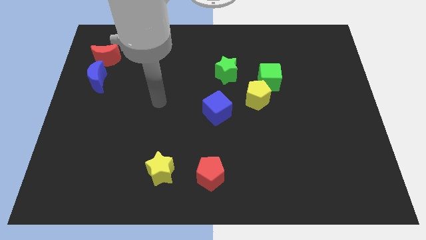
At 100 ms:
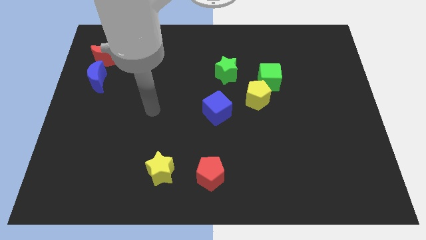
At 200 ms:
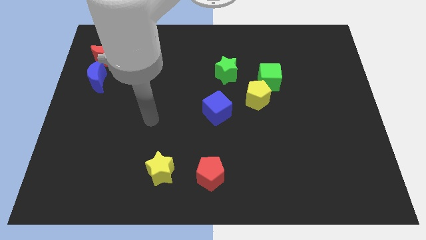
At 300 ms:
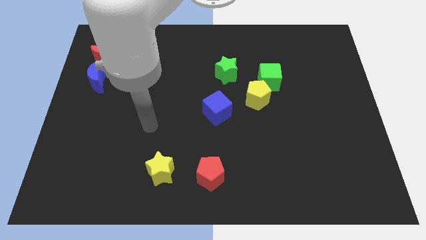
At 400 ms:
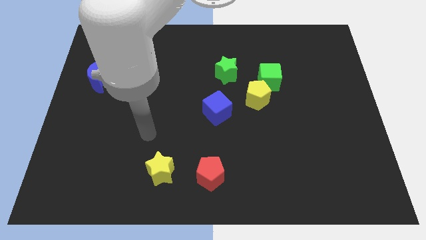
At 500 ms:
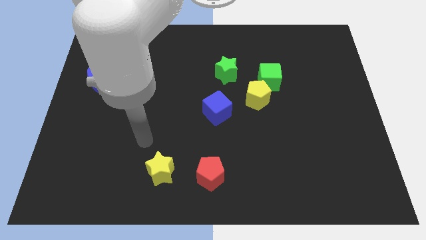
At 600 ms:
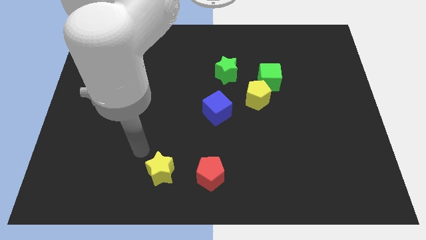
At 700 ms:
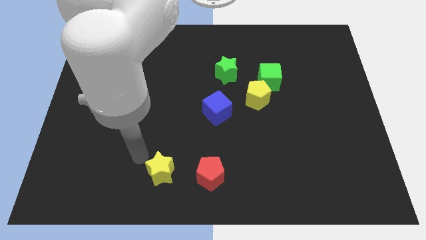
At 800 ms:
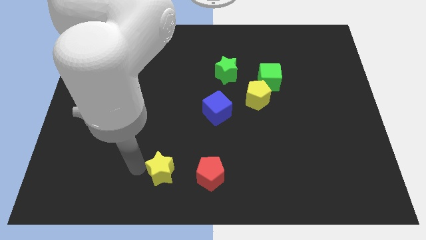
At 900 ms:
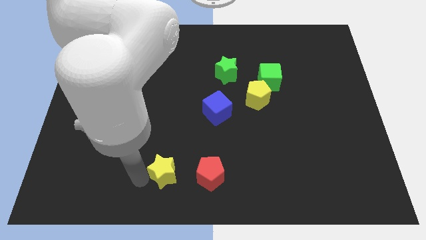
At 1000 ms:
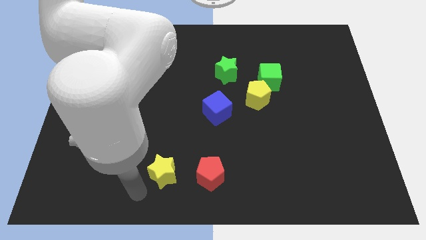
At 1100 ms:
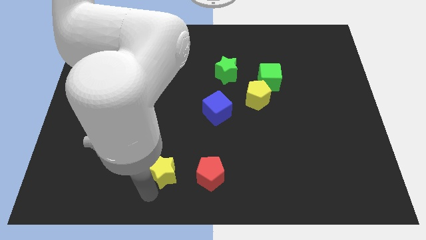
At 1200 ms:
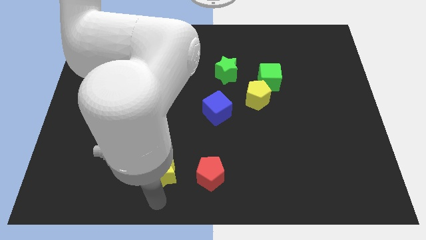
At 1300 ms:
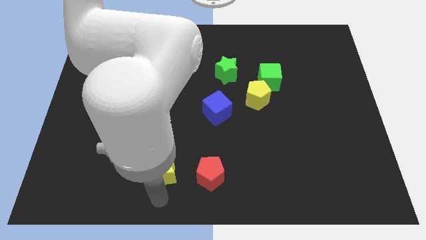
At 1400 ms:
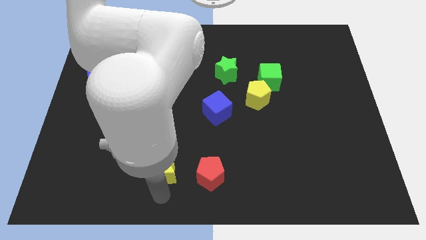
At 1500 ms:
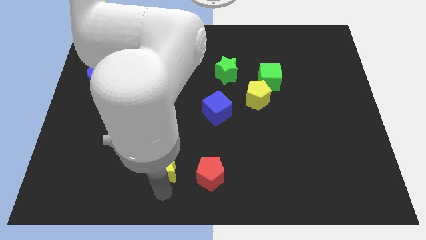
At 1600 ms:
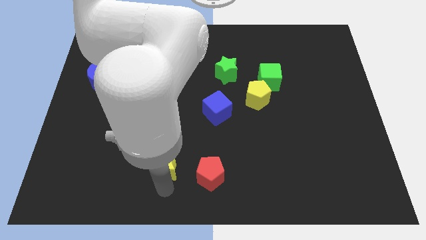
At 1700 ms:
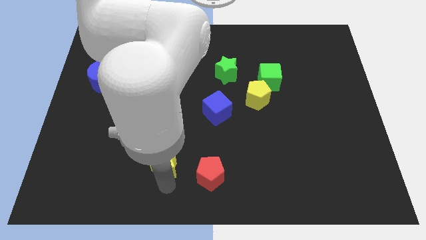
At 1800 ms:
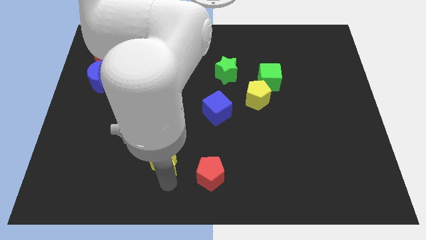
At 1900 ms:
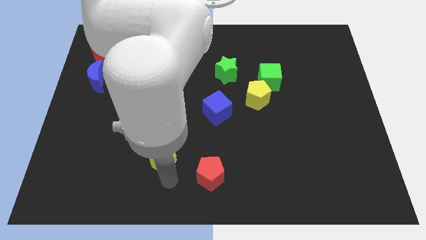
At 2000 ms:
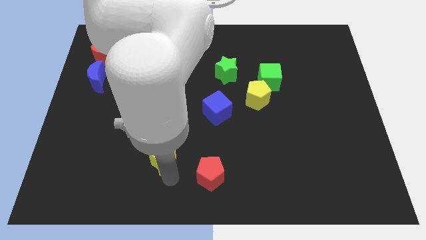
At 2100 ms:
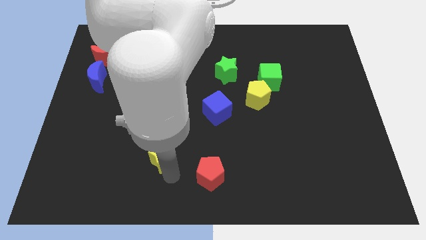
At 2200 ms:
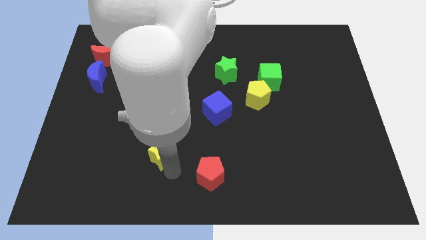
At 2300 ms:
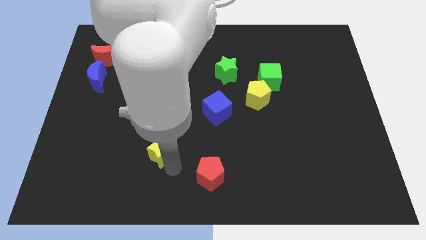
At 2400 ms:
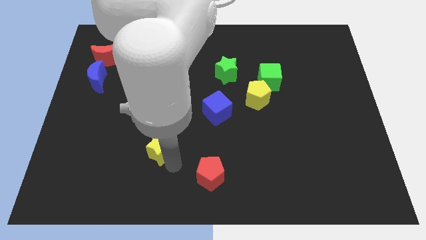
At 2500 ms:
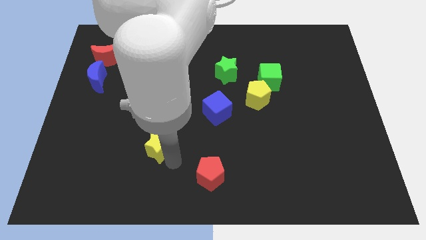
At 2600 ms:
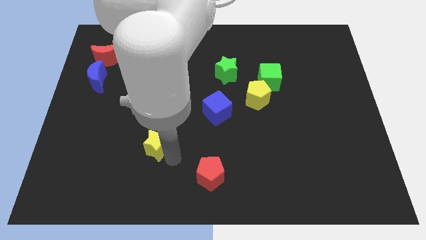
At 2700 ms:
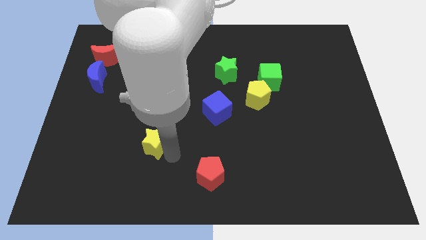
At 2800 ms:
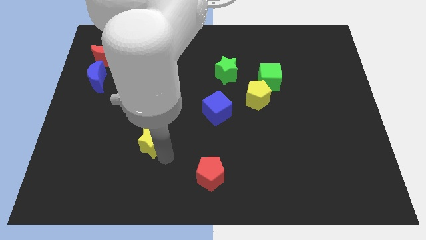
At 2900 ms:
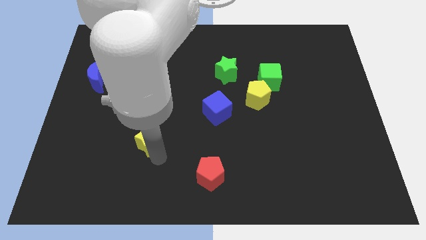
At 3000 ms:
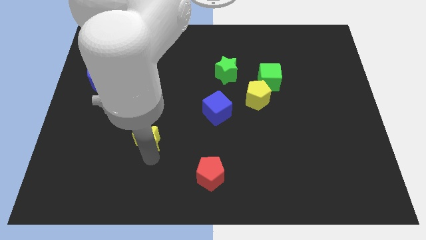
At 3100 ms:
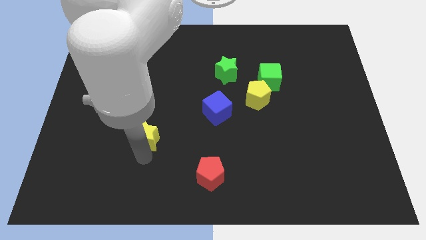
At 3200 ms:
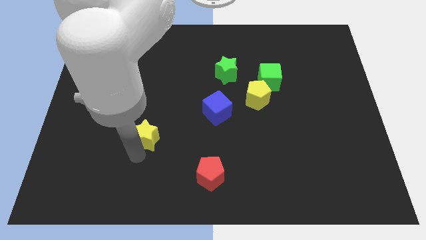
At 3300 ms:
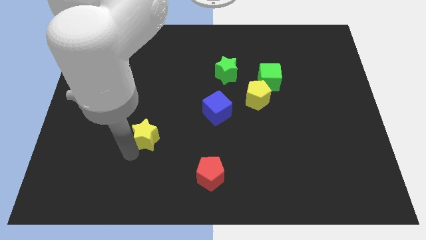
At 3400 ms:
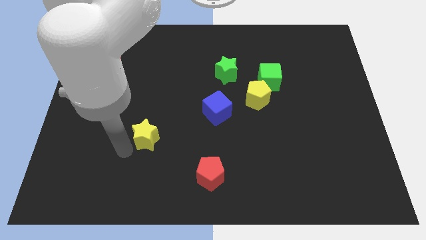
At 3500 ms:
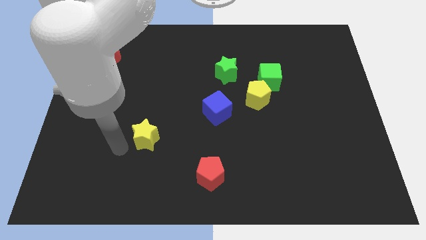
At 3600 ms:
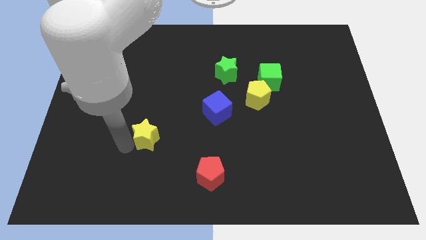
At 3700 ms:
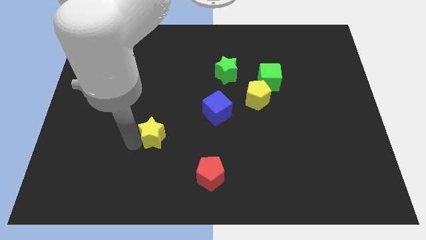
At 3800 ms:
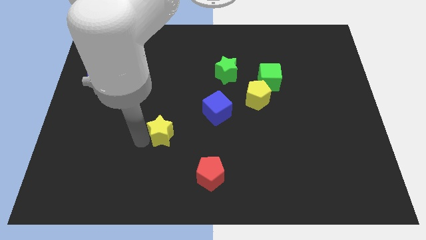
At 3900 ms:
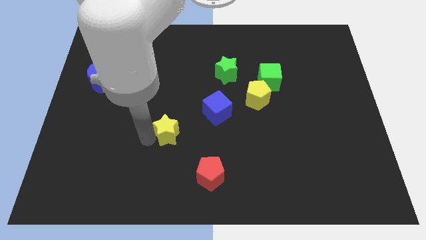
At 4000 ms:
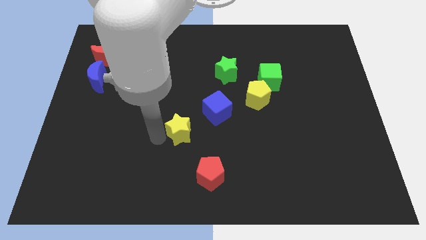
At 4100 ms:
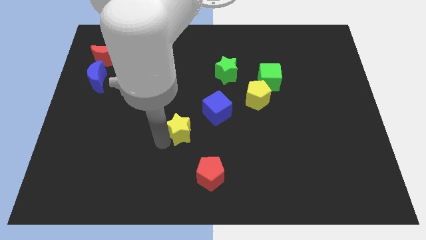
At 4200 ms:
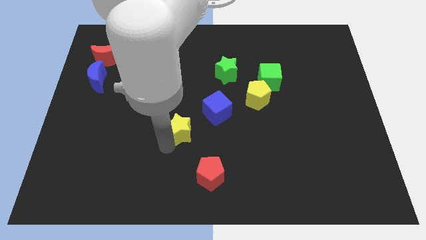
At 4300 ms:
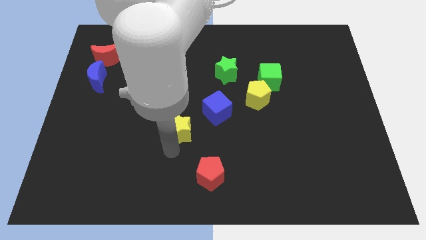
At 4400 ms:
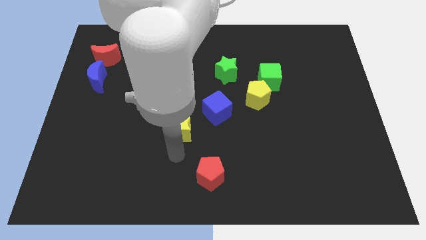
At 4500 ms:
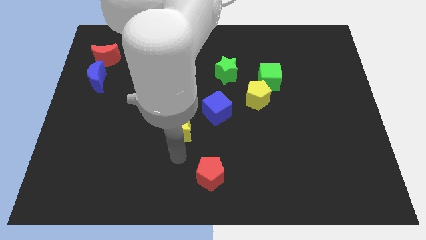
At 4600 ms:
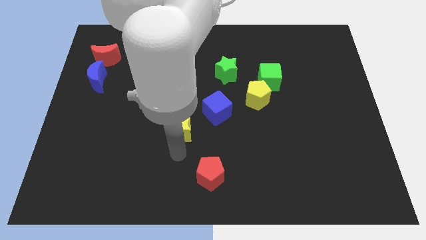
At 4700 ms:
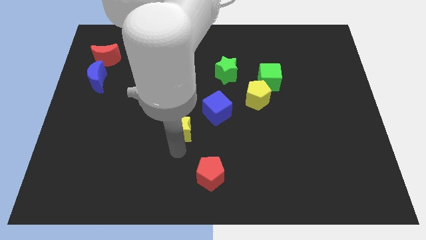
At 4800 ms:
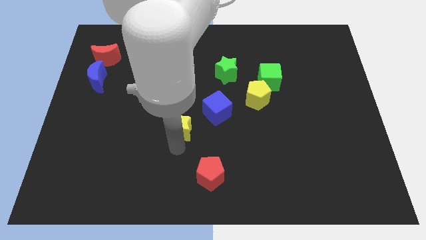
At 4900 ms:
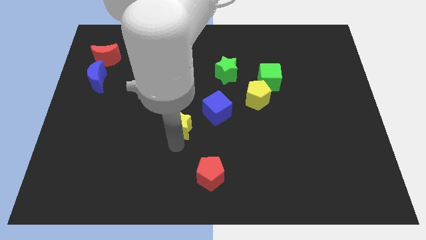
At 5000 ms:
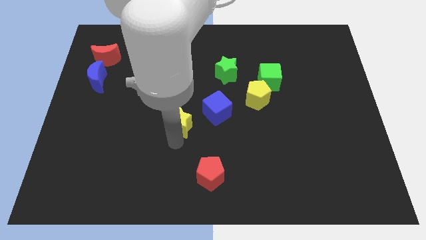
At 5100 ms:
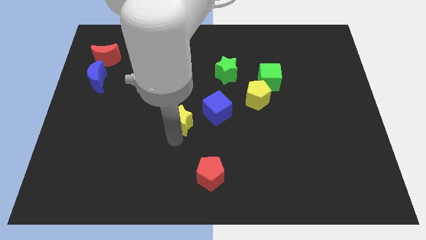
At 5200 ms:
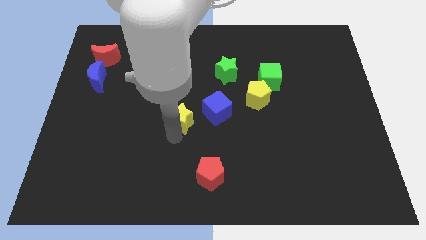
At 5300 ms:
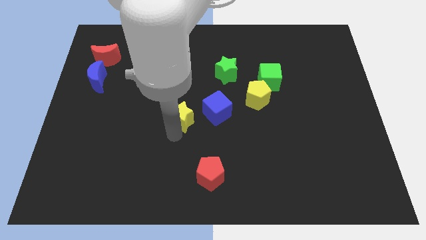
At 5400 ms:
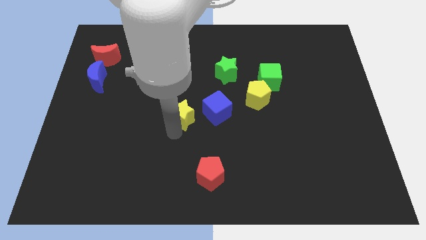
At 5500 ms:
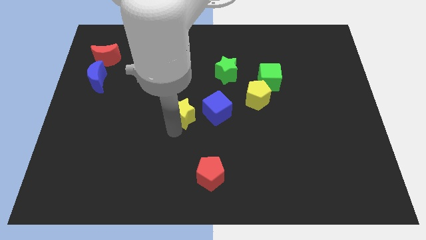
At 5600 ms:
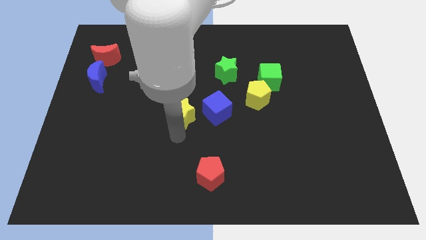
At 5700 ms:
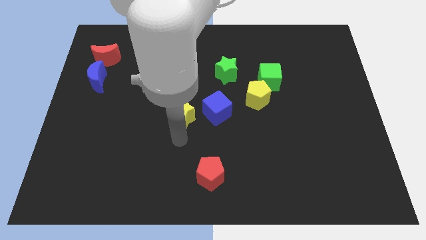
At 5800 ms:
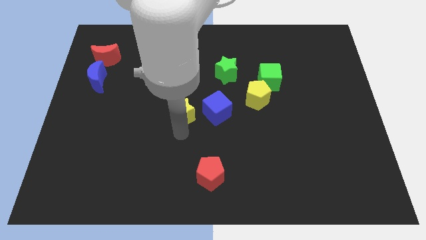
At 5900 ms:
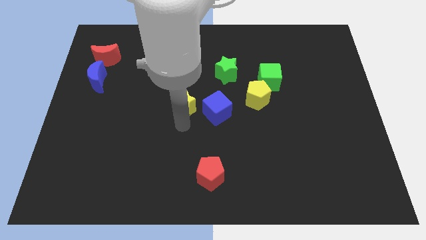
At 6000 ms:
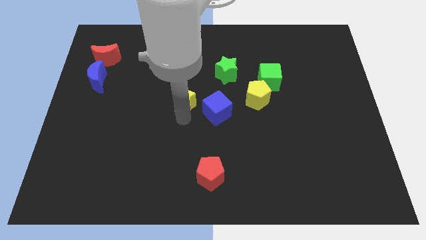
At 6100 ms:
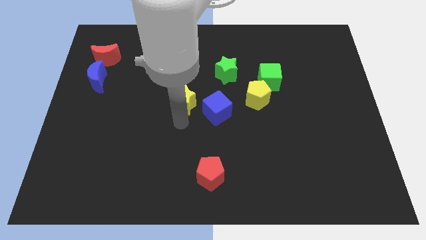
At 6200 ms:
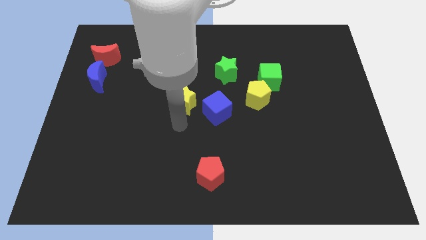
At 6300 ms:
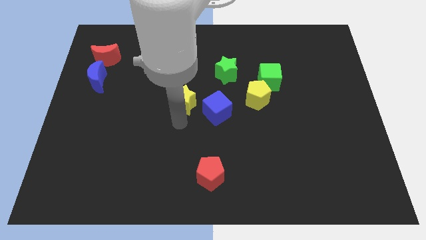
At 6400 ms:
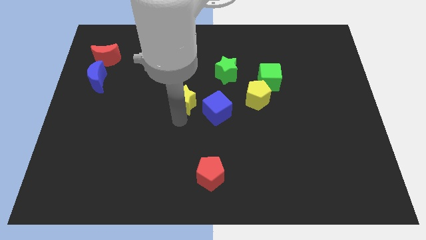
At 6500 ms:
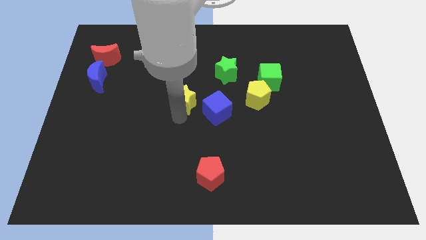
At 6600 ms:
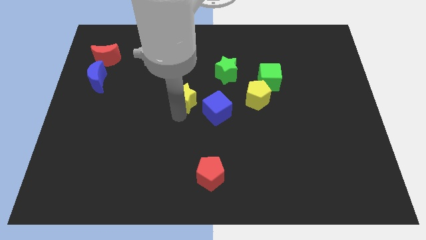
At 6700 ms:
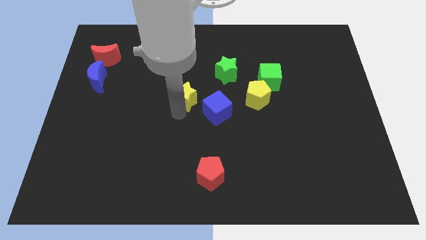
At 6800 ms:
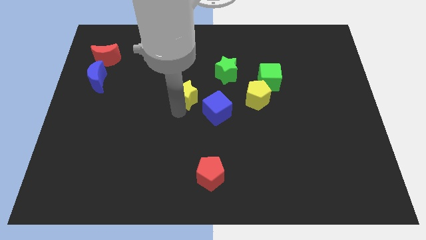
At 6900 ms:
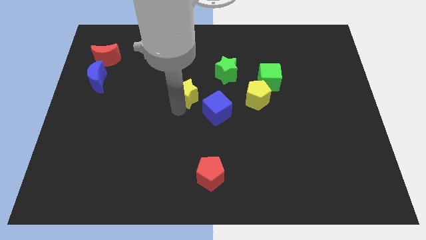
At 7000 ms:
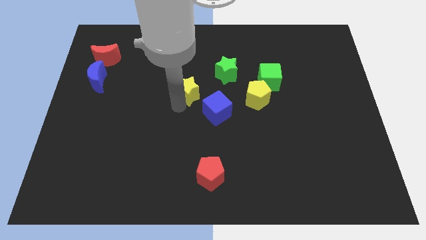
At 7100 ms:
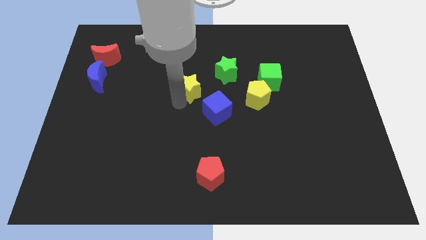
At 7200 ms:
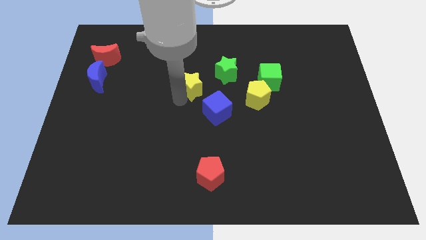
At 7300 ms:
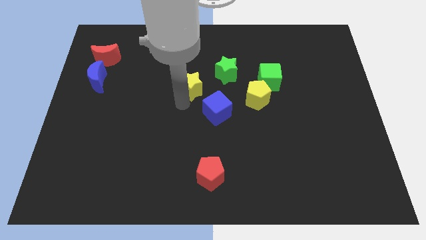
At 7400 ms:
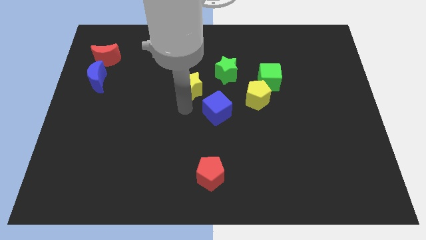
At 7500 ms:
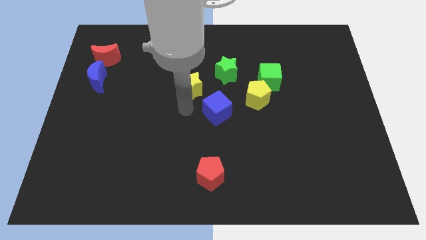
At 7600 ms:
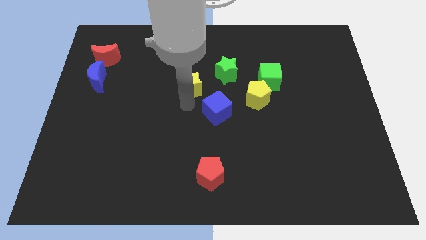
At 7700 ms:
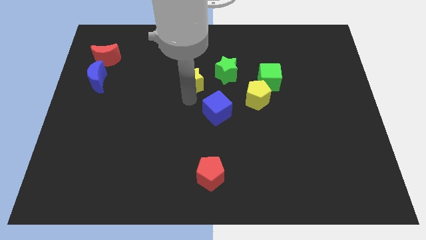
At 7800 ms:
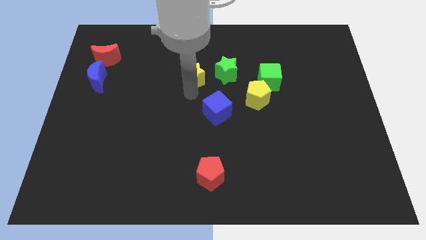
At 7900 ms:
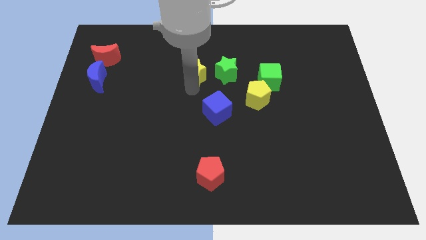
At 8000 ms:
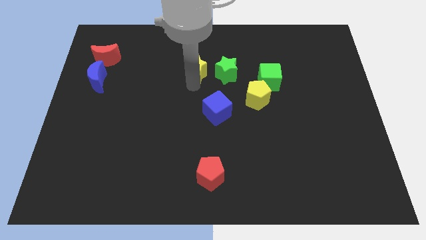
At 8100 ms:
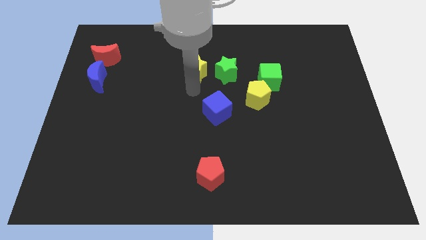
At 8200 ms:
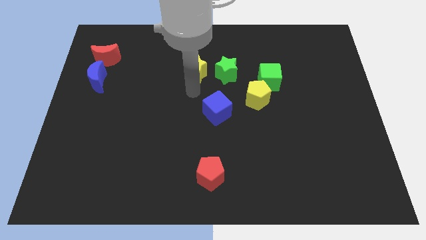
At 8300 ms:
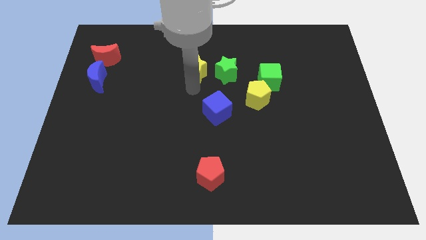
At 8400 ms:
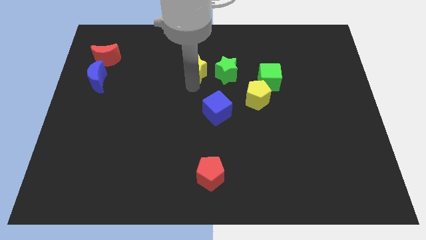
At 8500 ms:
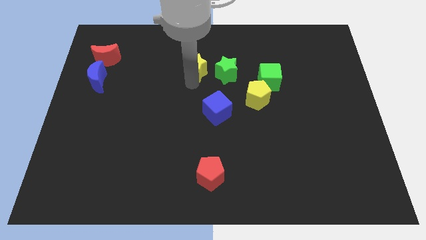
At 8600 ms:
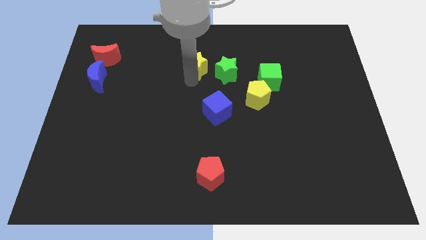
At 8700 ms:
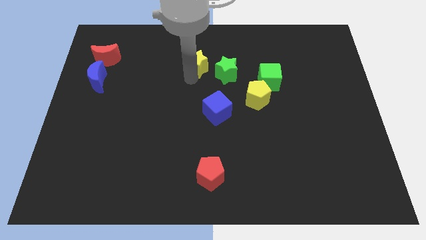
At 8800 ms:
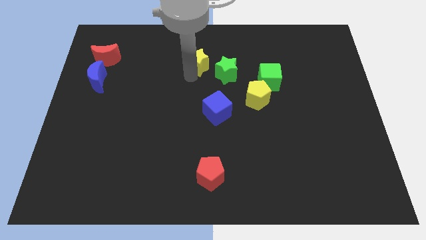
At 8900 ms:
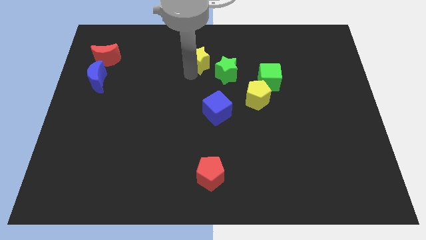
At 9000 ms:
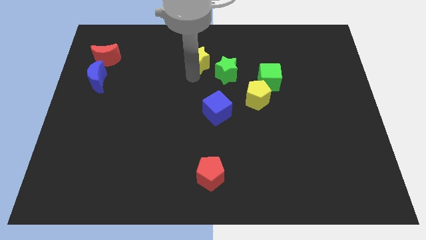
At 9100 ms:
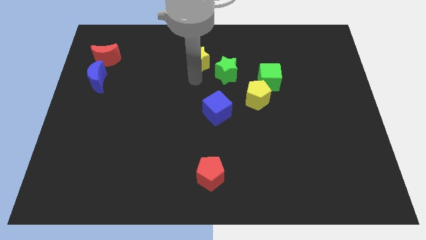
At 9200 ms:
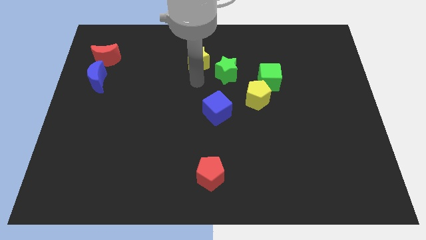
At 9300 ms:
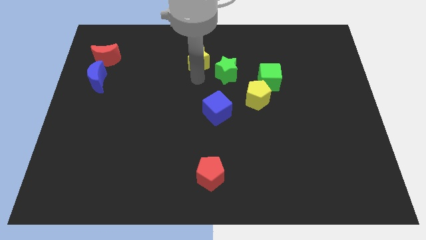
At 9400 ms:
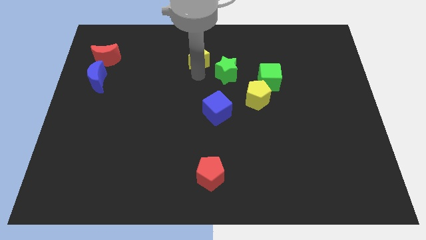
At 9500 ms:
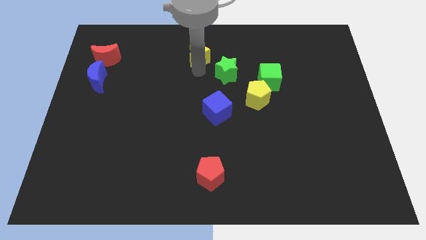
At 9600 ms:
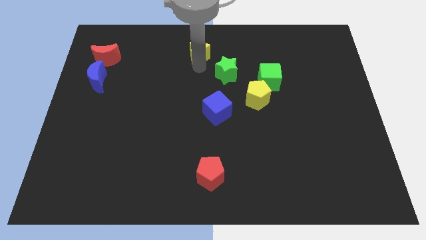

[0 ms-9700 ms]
move the yellow star to the towards your base
